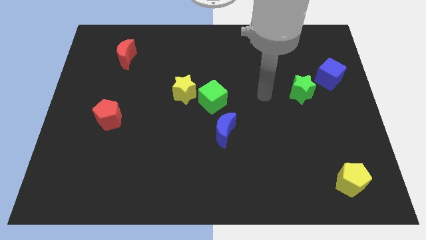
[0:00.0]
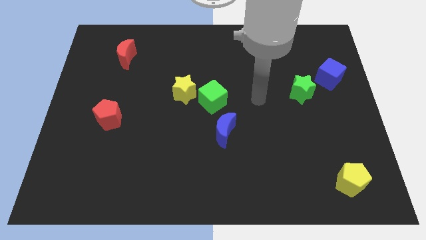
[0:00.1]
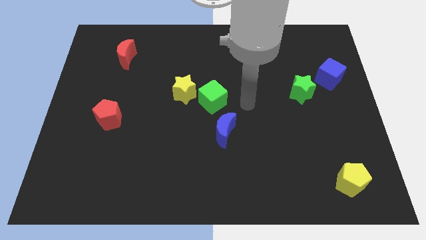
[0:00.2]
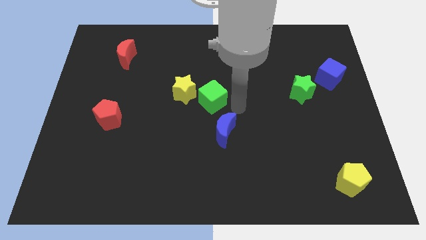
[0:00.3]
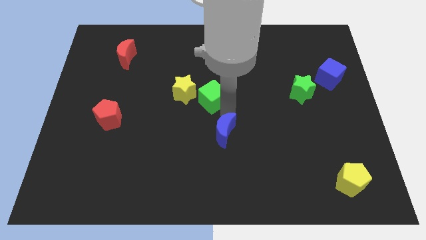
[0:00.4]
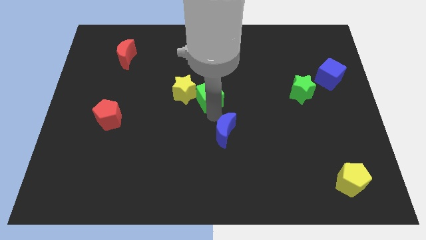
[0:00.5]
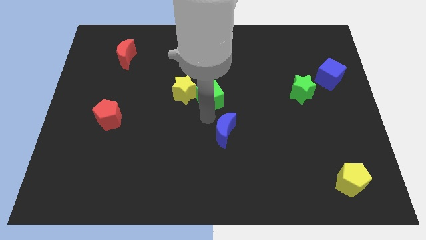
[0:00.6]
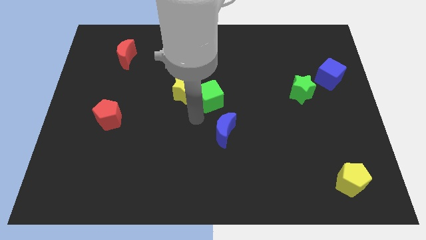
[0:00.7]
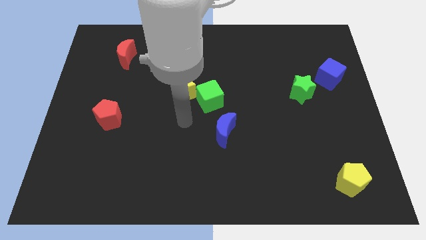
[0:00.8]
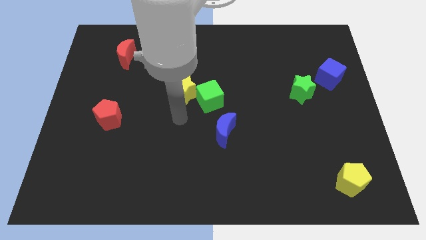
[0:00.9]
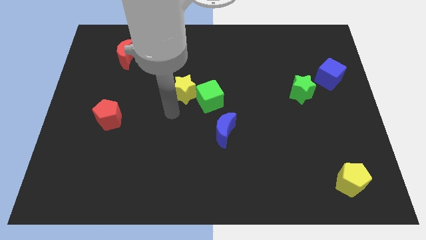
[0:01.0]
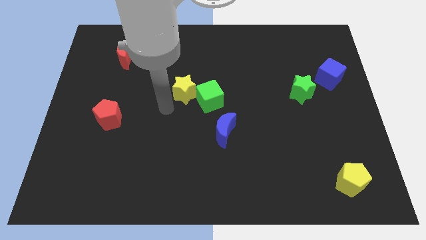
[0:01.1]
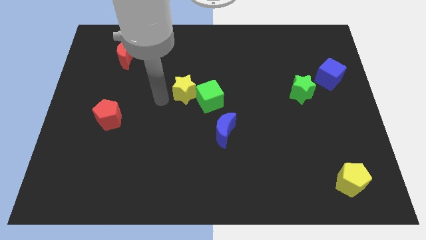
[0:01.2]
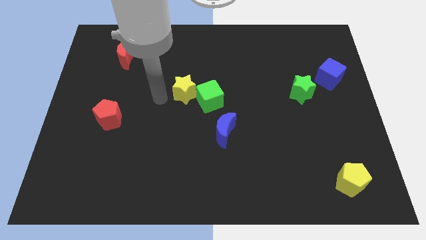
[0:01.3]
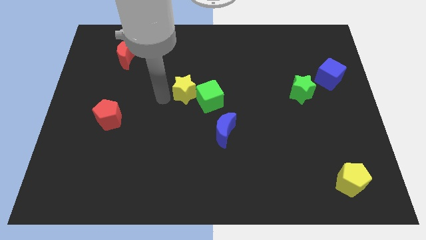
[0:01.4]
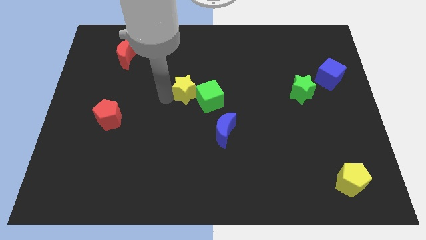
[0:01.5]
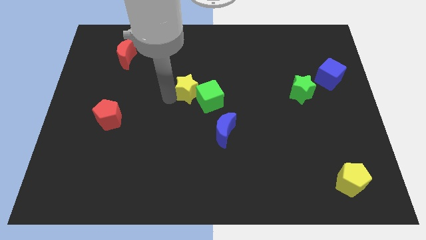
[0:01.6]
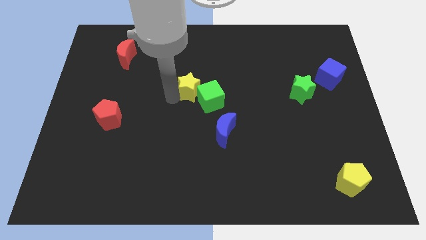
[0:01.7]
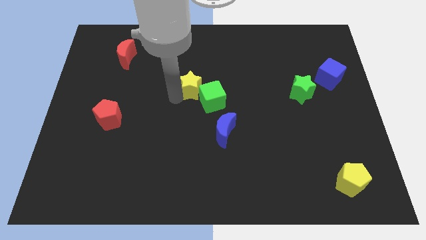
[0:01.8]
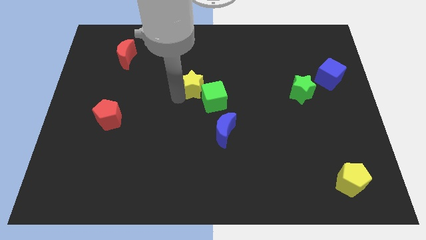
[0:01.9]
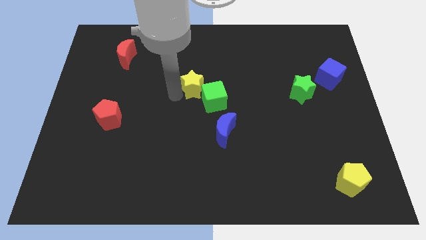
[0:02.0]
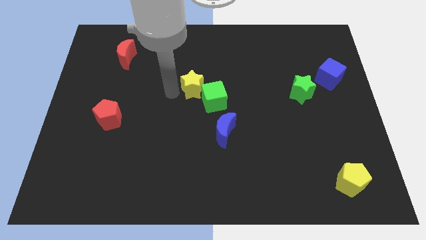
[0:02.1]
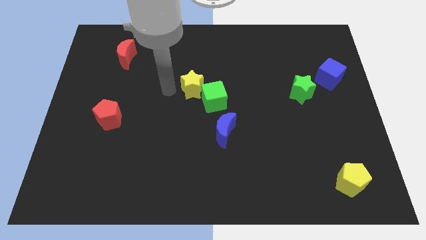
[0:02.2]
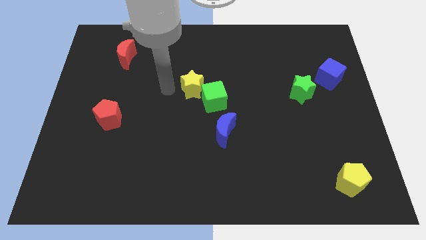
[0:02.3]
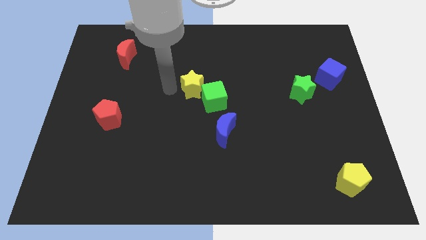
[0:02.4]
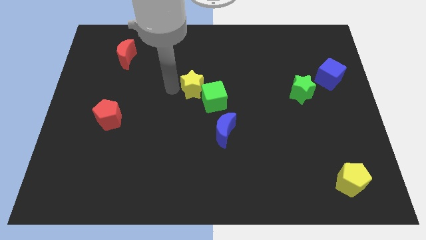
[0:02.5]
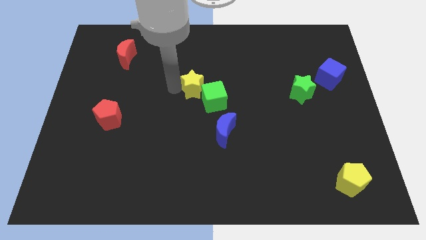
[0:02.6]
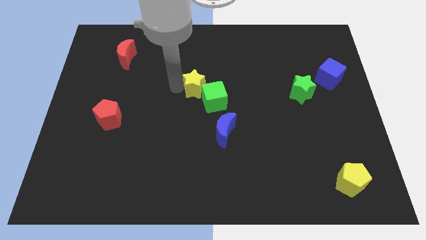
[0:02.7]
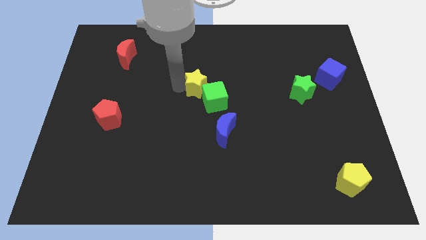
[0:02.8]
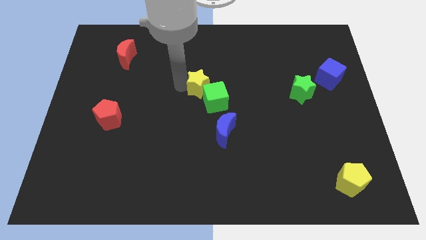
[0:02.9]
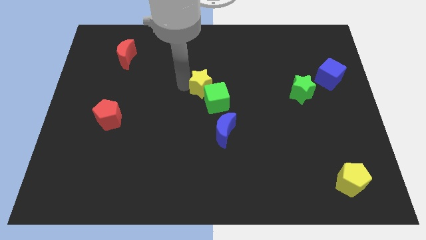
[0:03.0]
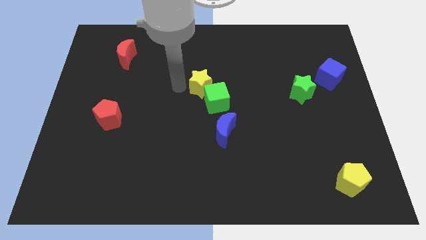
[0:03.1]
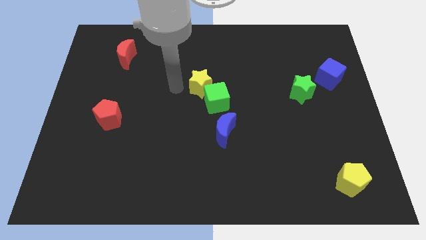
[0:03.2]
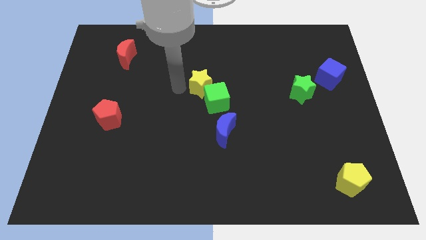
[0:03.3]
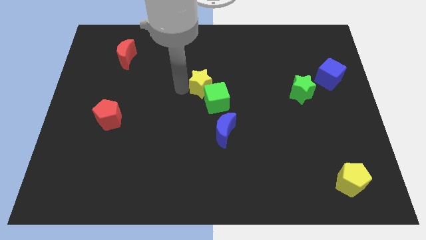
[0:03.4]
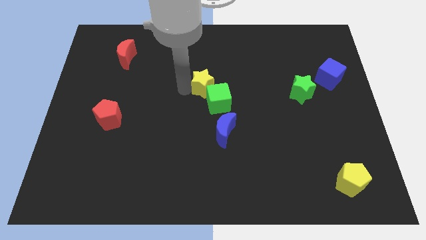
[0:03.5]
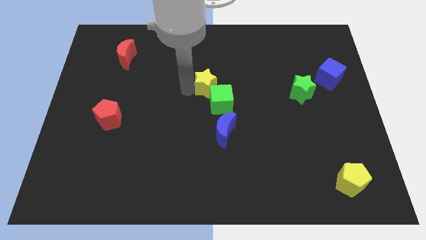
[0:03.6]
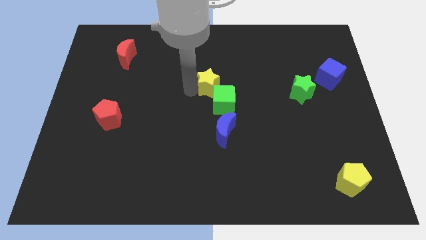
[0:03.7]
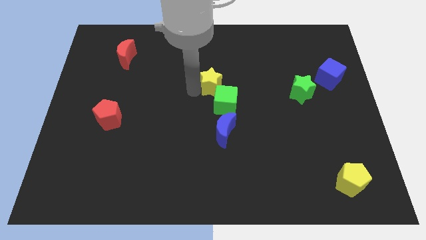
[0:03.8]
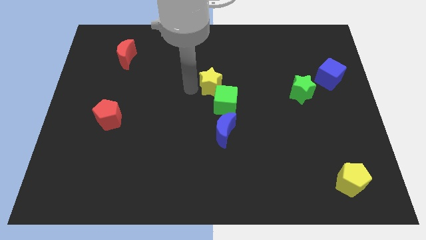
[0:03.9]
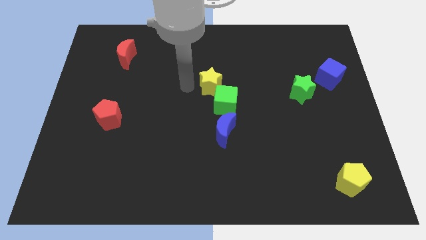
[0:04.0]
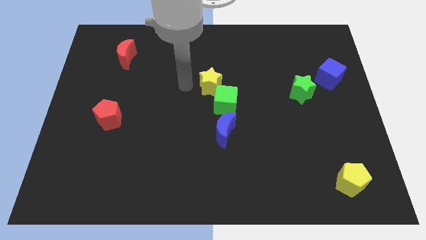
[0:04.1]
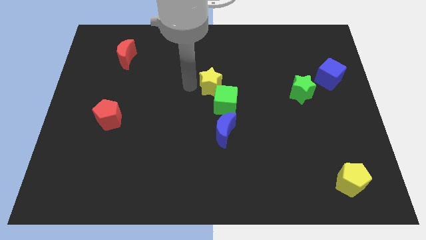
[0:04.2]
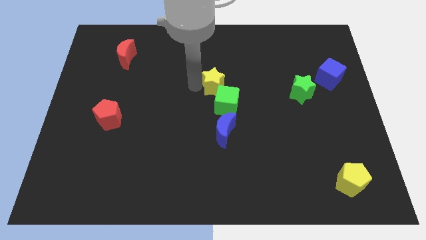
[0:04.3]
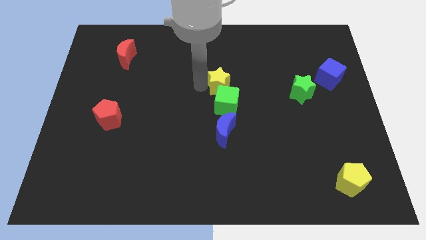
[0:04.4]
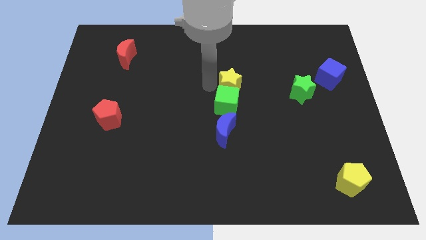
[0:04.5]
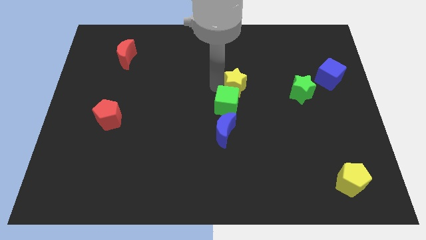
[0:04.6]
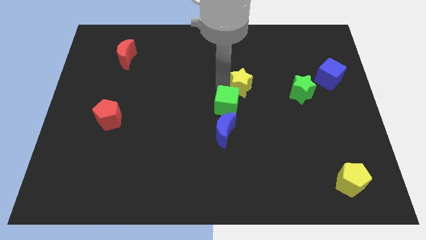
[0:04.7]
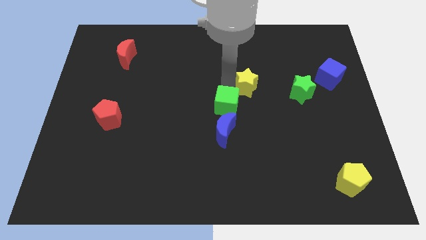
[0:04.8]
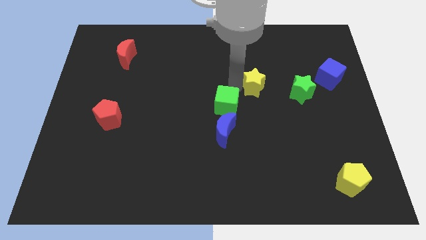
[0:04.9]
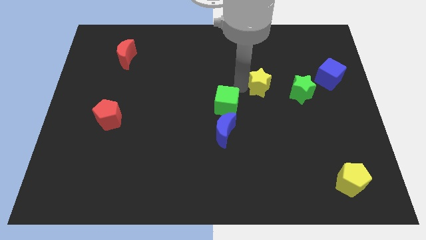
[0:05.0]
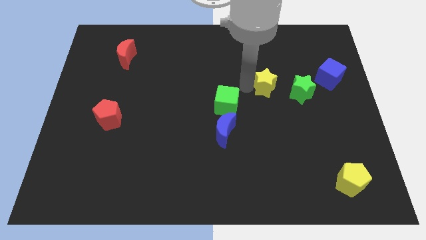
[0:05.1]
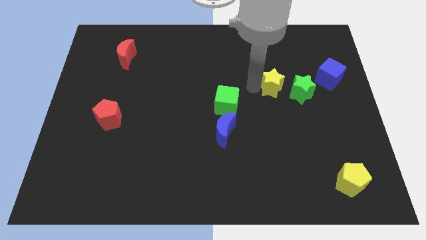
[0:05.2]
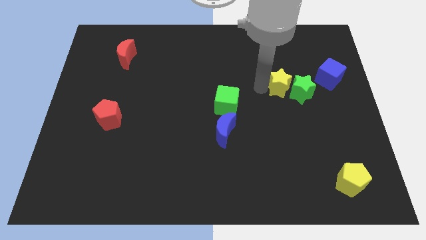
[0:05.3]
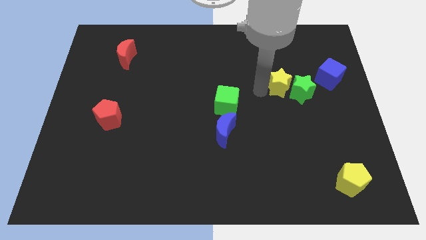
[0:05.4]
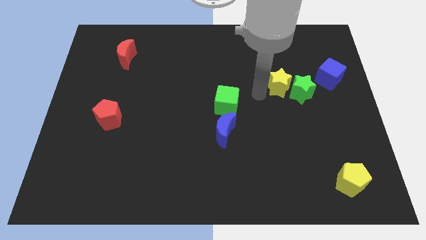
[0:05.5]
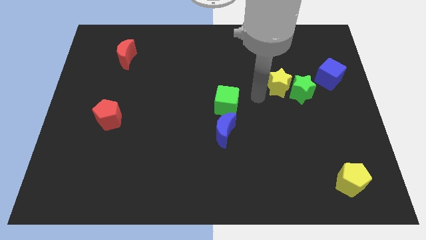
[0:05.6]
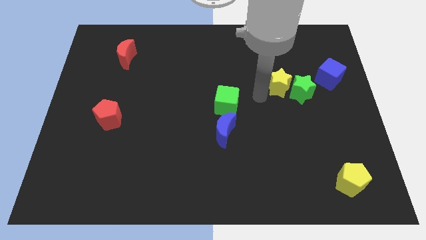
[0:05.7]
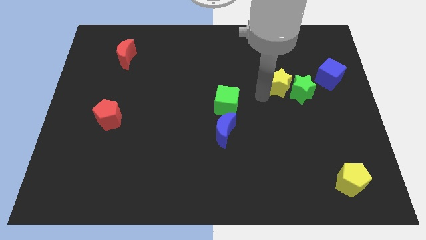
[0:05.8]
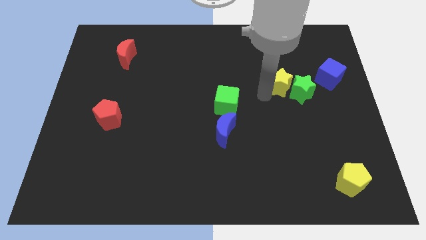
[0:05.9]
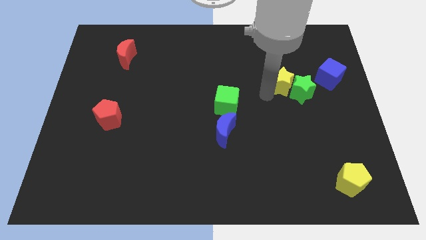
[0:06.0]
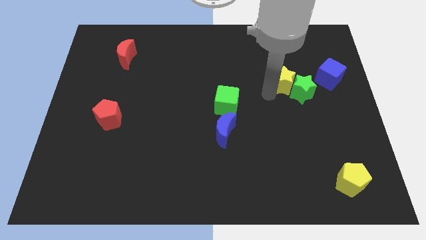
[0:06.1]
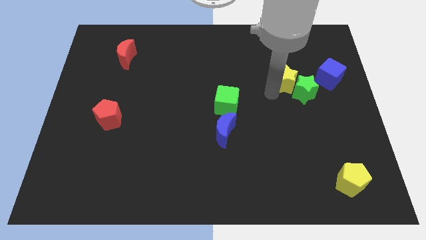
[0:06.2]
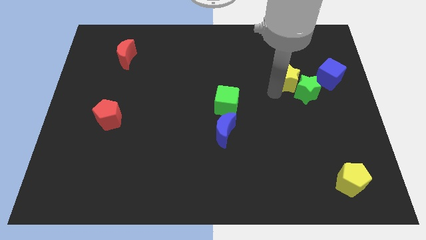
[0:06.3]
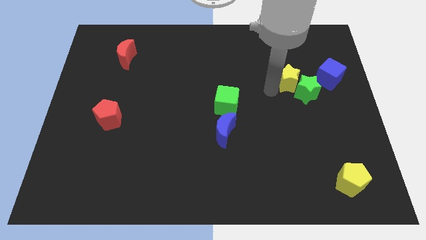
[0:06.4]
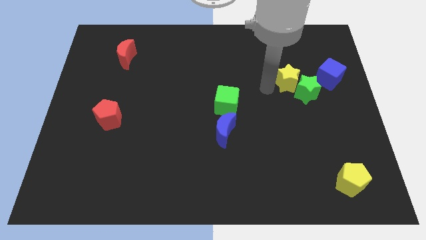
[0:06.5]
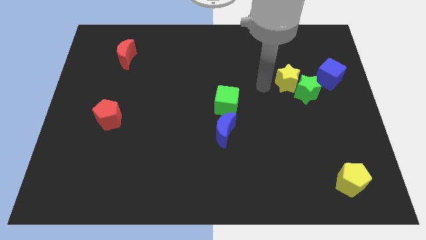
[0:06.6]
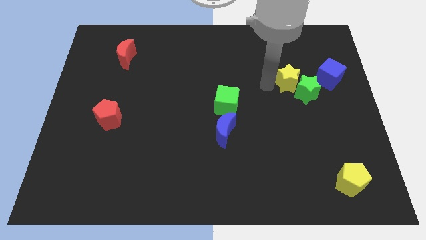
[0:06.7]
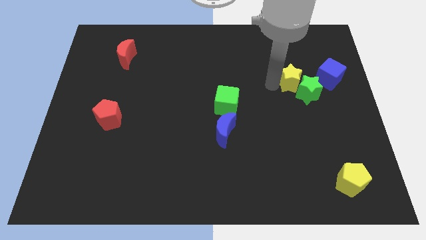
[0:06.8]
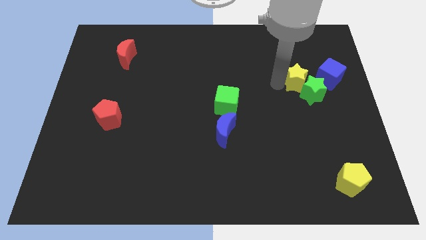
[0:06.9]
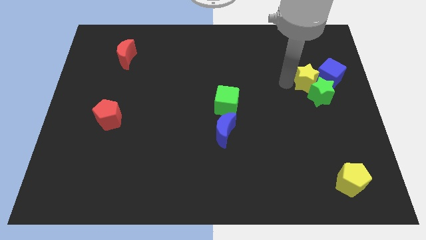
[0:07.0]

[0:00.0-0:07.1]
slide the yellow star towards the blue cube

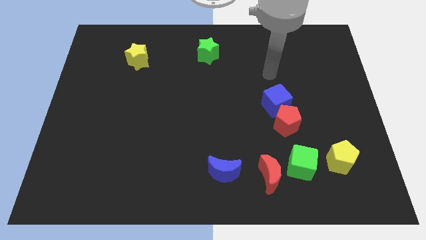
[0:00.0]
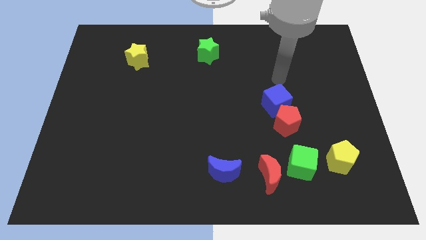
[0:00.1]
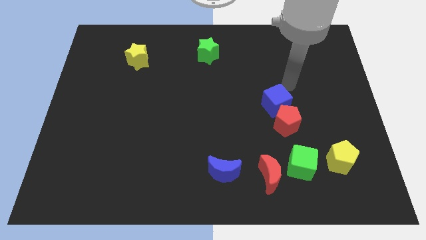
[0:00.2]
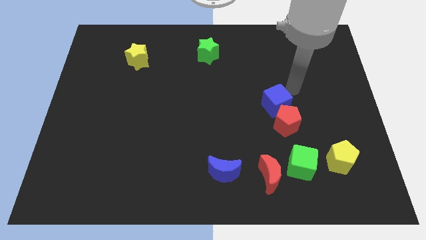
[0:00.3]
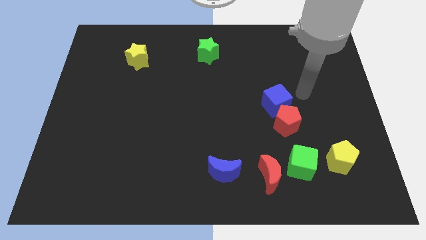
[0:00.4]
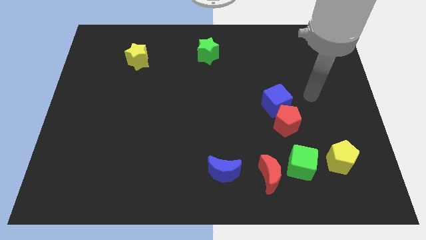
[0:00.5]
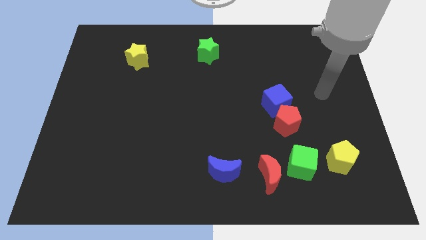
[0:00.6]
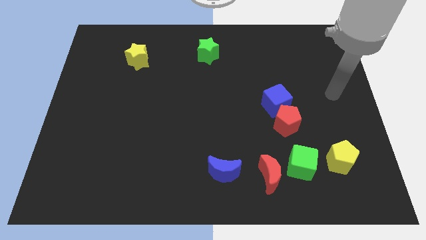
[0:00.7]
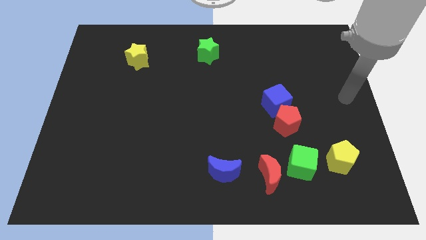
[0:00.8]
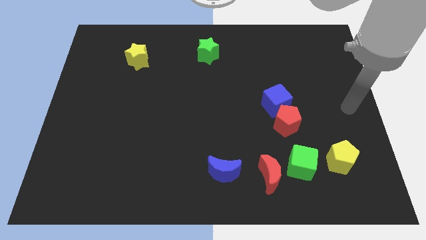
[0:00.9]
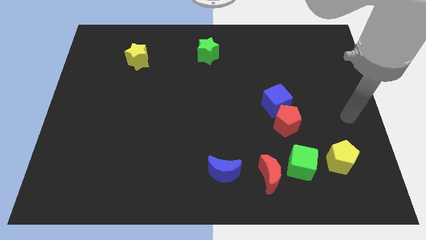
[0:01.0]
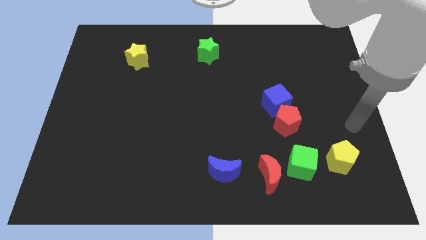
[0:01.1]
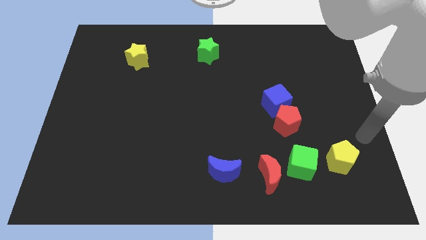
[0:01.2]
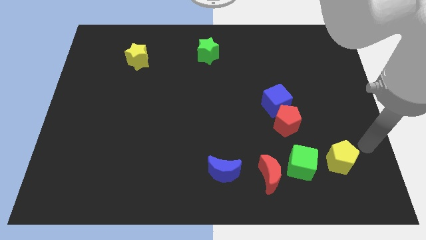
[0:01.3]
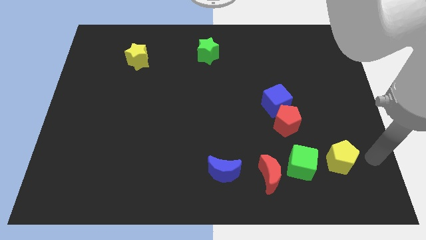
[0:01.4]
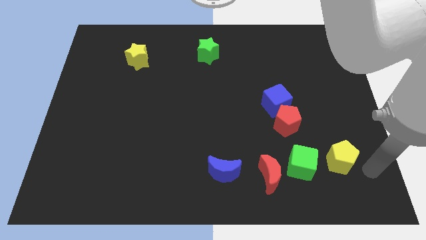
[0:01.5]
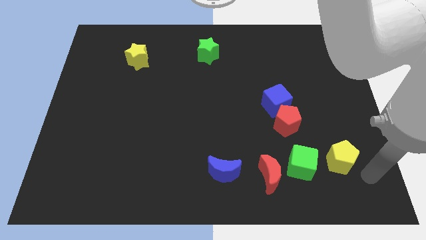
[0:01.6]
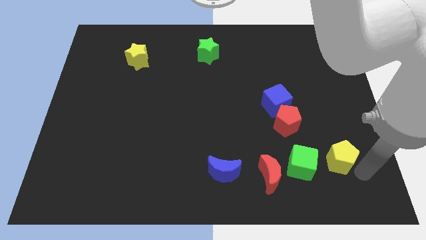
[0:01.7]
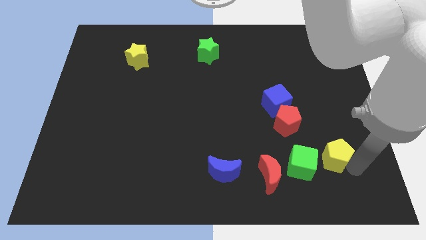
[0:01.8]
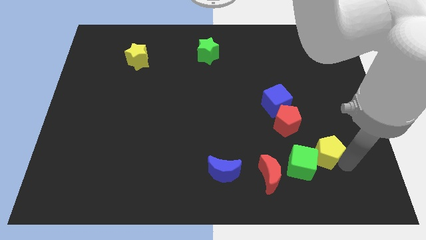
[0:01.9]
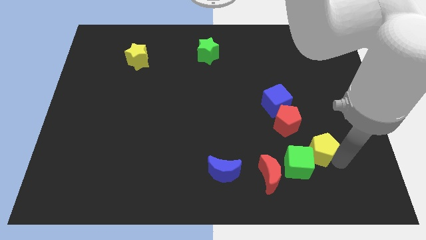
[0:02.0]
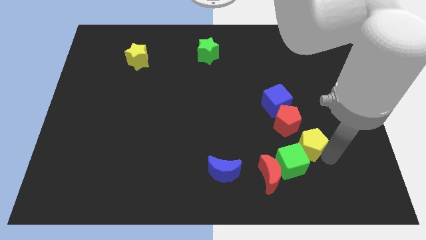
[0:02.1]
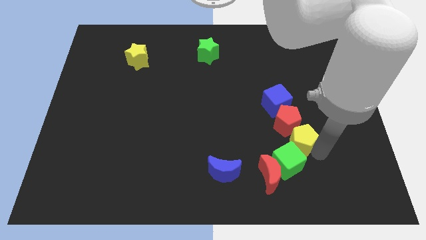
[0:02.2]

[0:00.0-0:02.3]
move the yellow pentagon to the red pentagon
